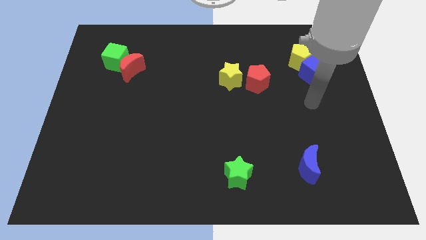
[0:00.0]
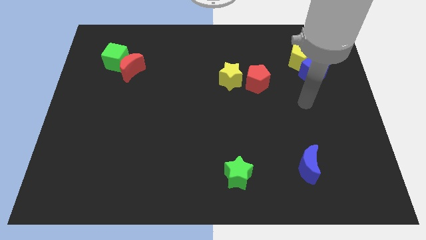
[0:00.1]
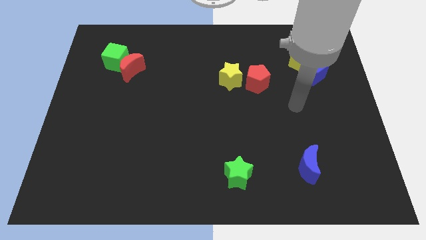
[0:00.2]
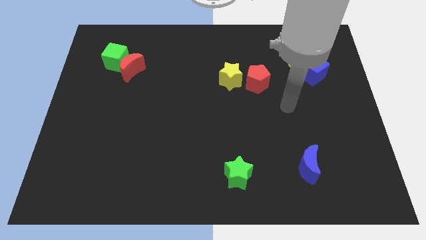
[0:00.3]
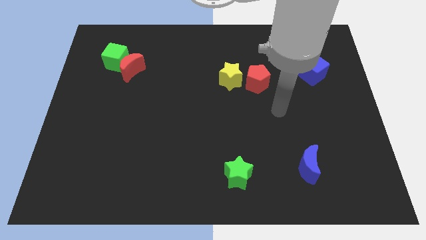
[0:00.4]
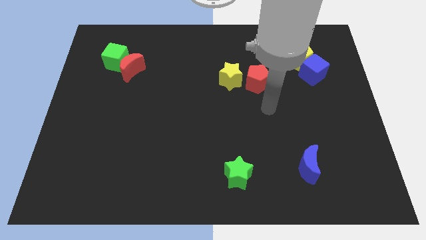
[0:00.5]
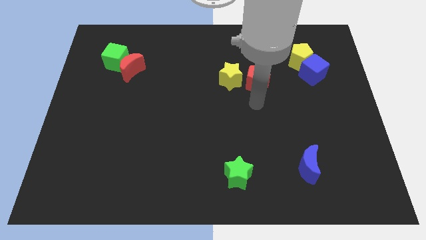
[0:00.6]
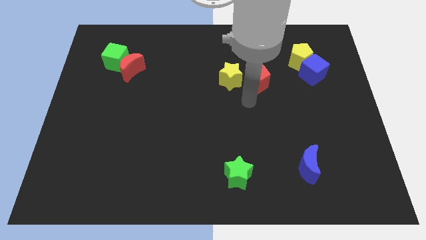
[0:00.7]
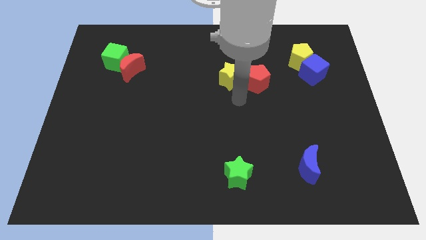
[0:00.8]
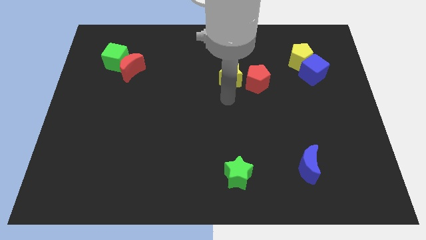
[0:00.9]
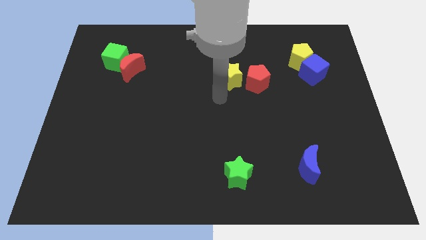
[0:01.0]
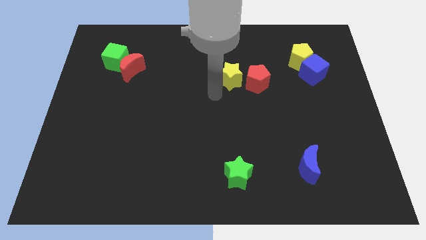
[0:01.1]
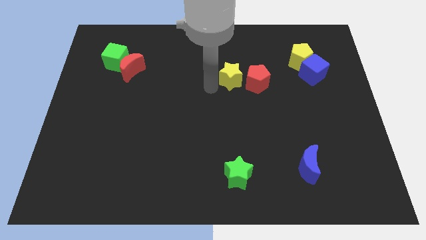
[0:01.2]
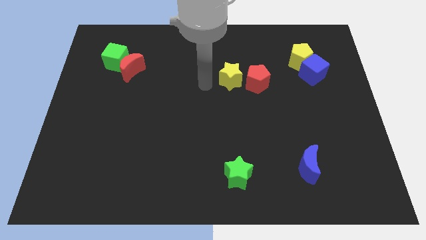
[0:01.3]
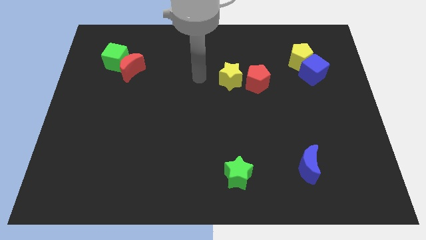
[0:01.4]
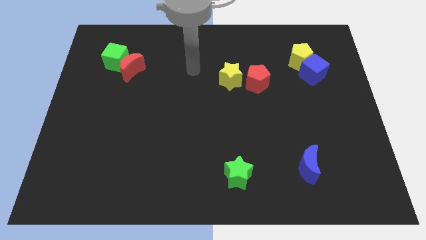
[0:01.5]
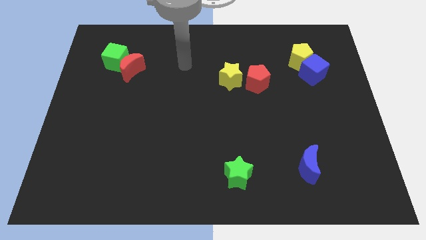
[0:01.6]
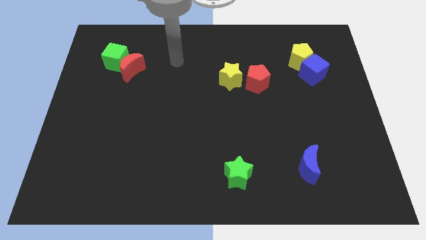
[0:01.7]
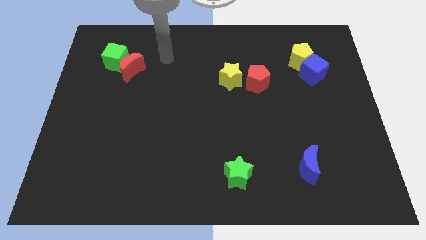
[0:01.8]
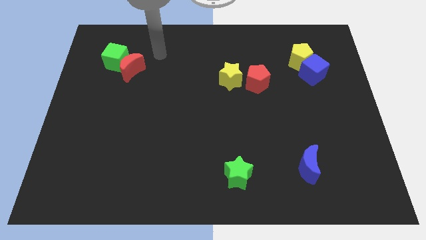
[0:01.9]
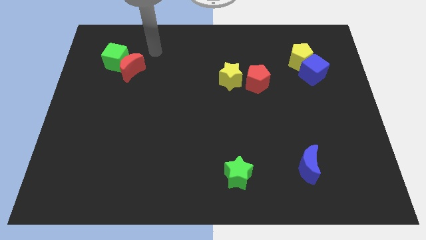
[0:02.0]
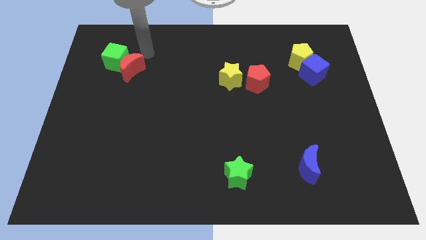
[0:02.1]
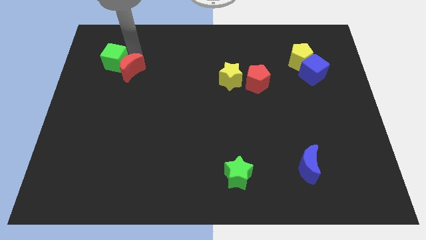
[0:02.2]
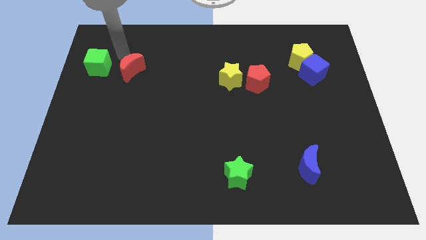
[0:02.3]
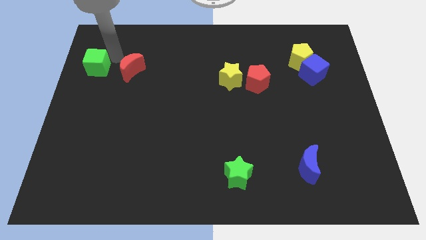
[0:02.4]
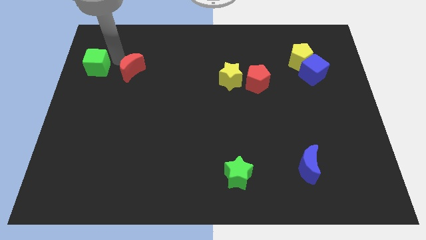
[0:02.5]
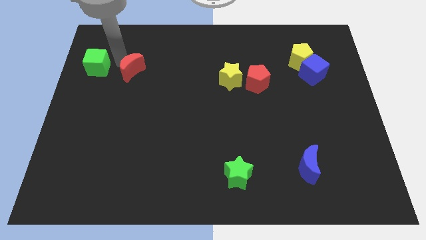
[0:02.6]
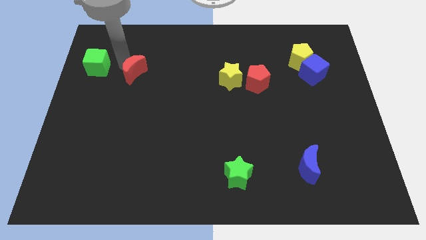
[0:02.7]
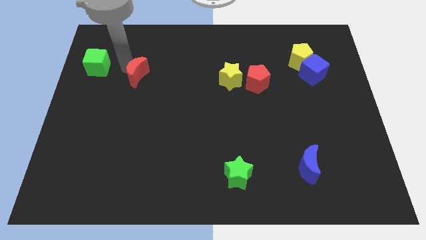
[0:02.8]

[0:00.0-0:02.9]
separate the red moon from the green cube

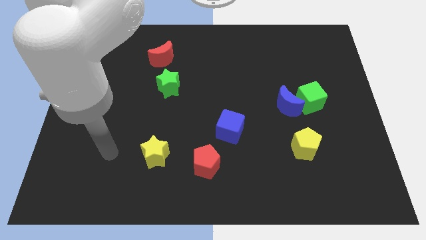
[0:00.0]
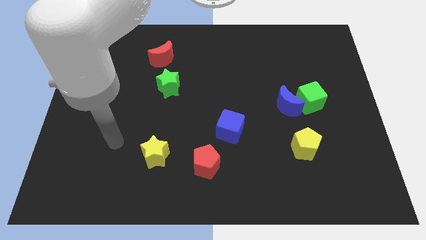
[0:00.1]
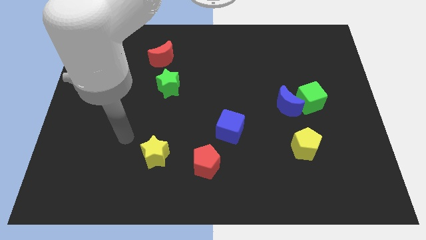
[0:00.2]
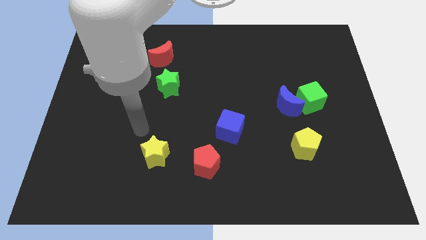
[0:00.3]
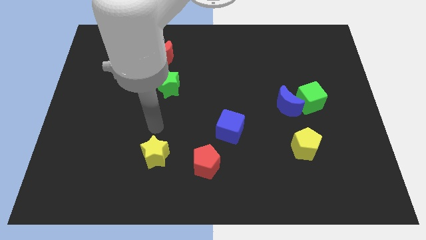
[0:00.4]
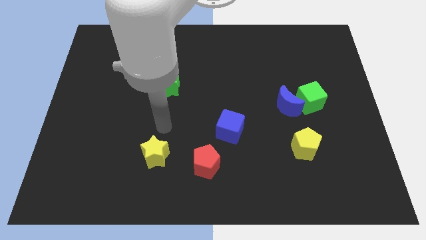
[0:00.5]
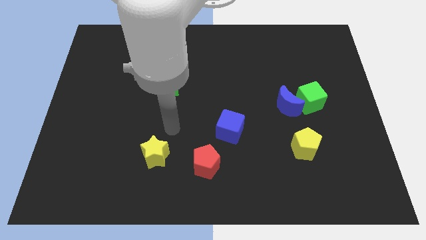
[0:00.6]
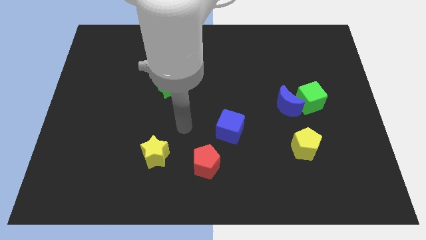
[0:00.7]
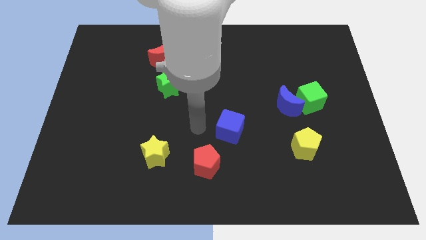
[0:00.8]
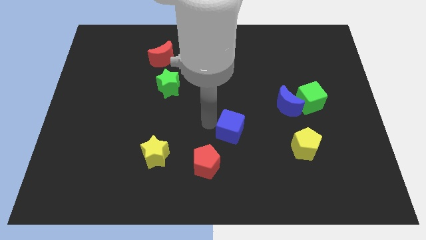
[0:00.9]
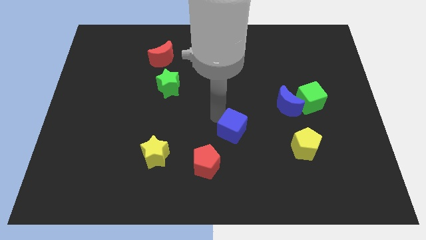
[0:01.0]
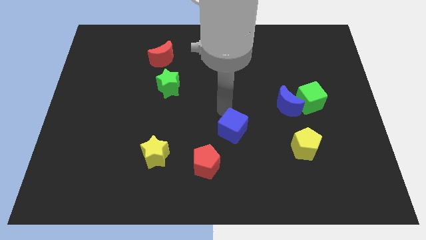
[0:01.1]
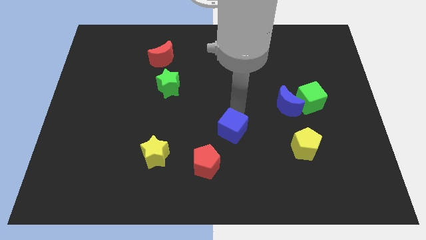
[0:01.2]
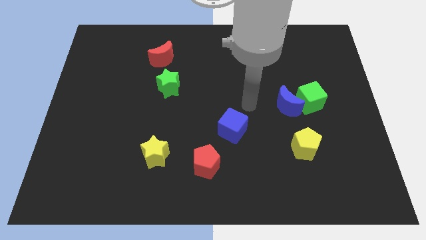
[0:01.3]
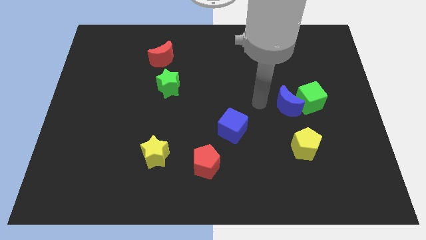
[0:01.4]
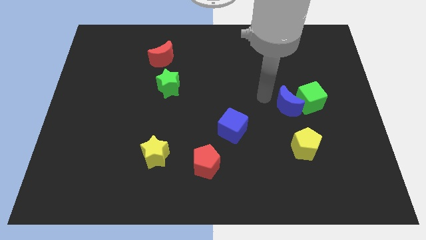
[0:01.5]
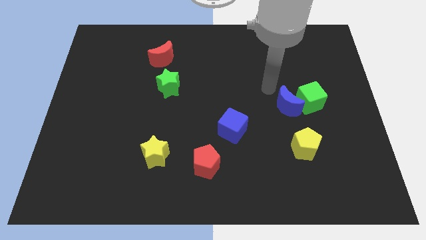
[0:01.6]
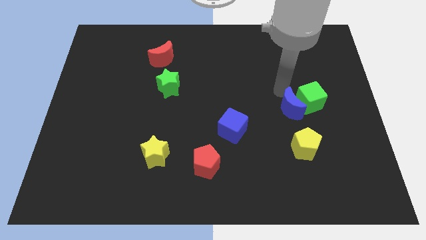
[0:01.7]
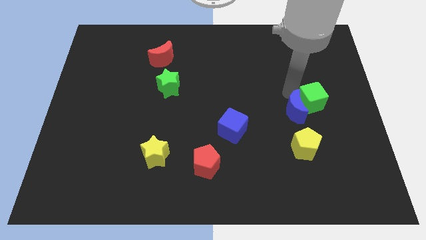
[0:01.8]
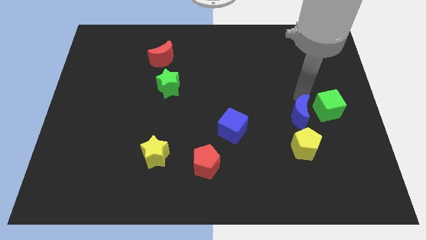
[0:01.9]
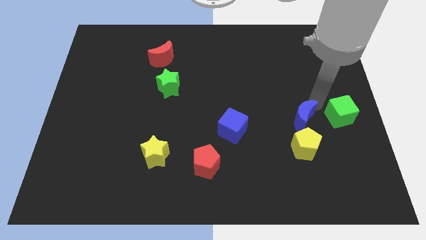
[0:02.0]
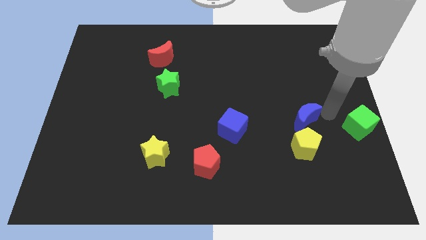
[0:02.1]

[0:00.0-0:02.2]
pull the blue moon apart from the green cube

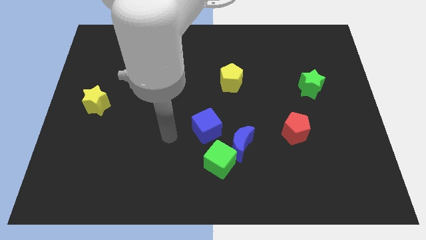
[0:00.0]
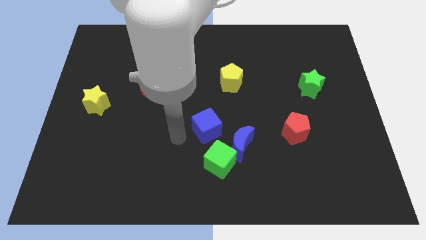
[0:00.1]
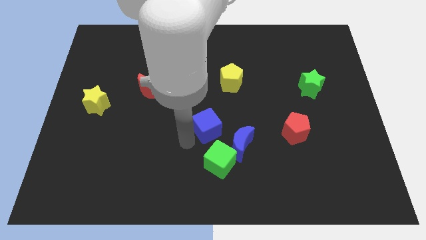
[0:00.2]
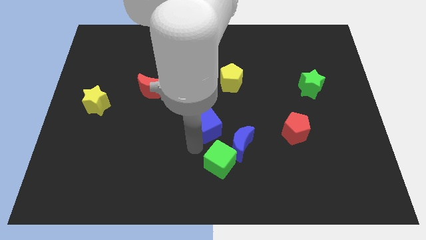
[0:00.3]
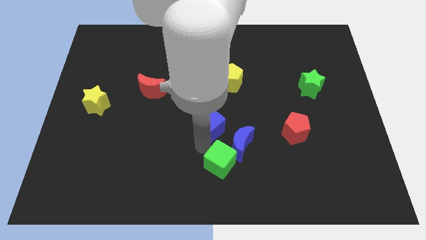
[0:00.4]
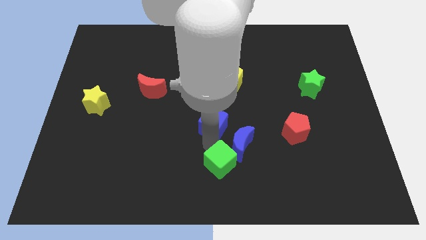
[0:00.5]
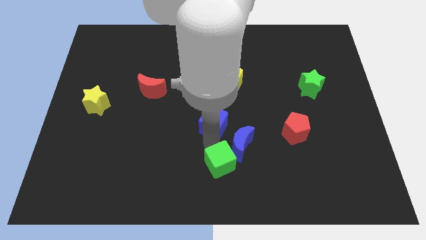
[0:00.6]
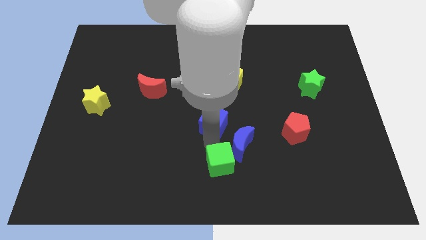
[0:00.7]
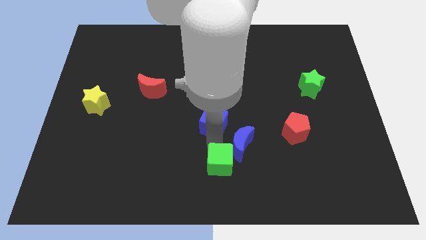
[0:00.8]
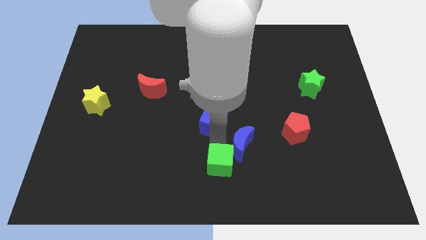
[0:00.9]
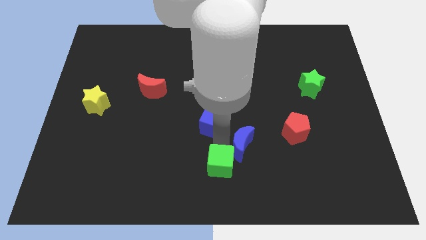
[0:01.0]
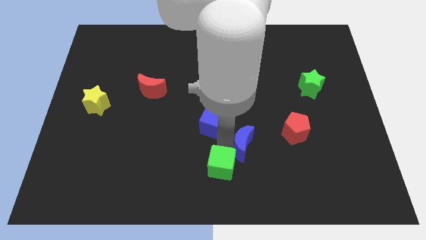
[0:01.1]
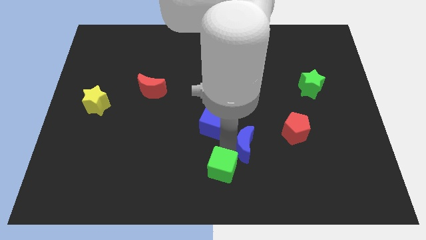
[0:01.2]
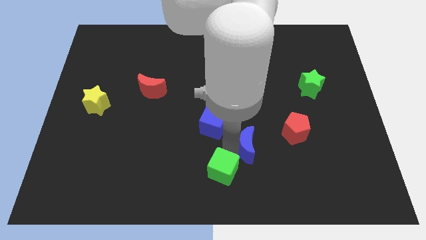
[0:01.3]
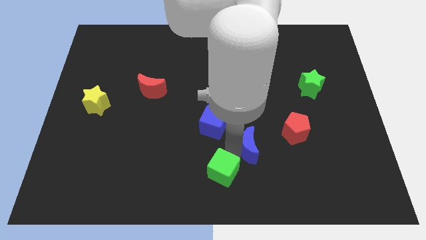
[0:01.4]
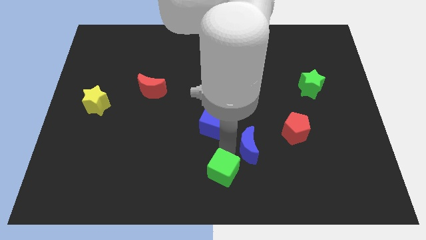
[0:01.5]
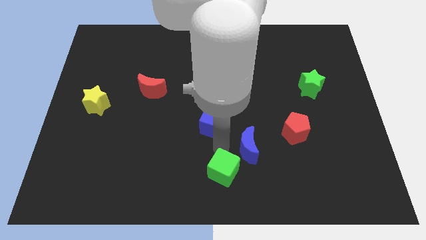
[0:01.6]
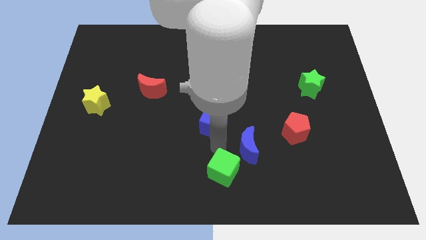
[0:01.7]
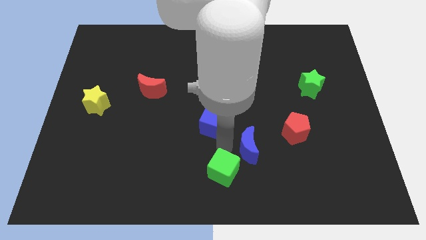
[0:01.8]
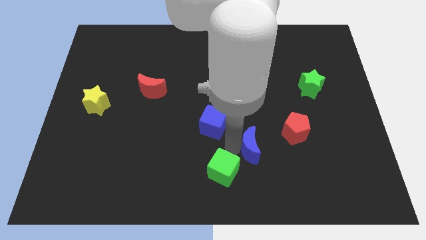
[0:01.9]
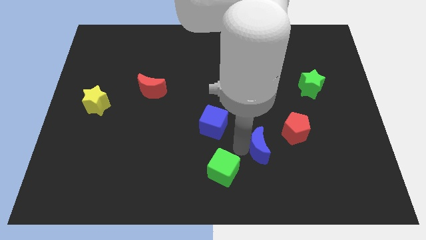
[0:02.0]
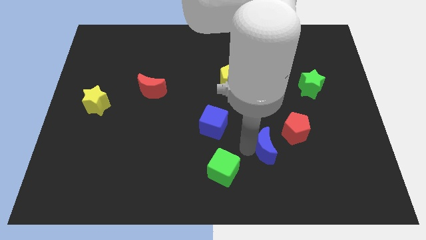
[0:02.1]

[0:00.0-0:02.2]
pull the blue moon apart from the green cube and blue cube

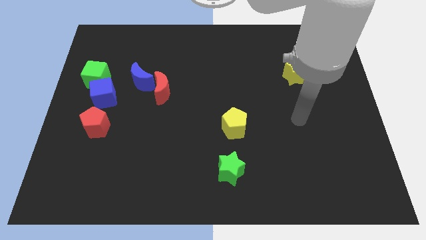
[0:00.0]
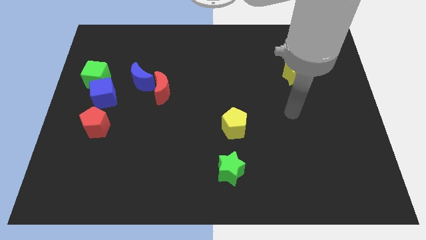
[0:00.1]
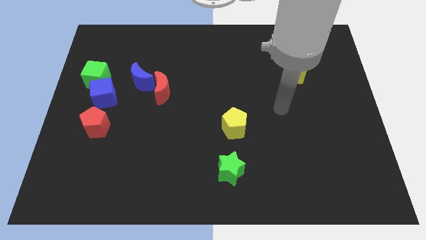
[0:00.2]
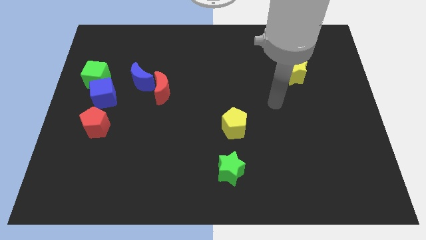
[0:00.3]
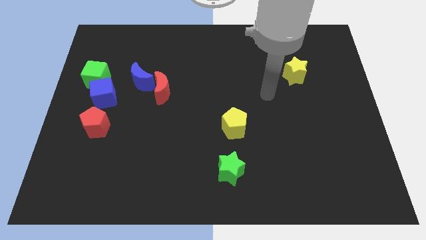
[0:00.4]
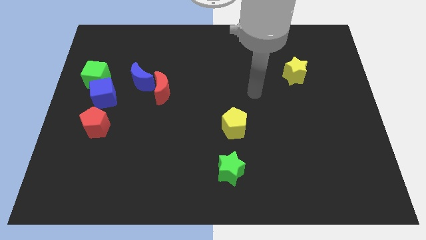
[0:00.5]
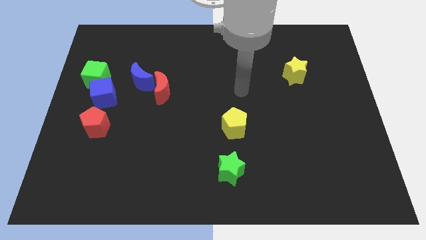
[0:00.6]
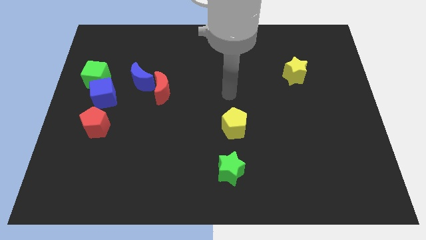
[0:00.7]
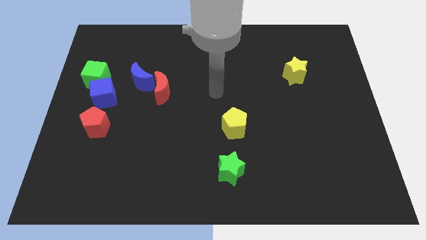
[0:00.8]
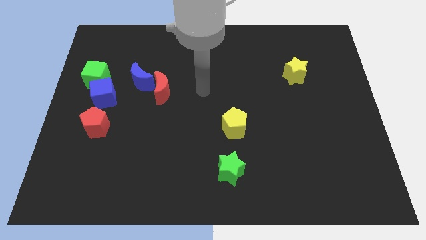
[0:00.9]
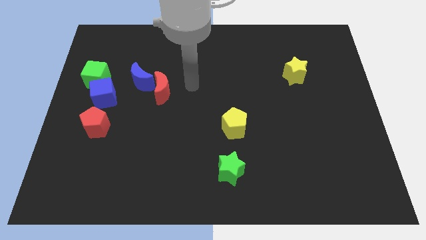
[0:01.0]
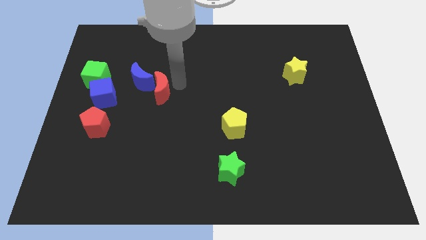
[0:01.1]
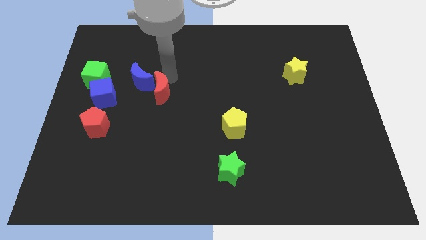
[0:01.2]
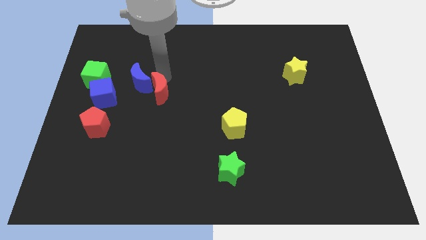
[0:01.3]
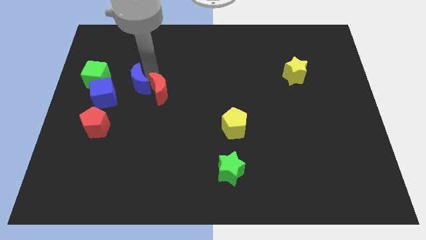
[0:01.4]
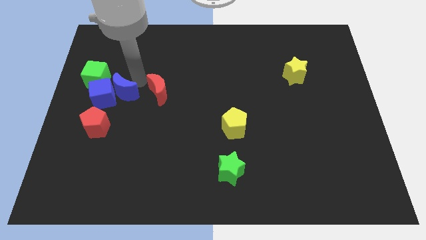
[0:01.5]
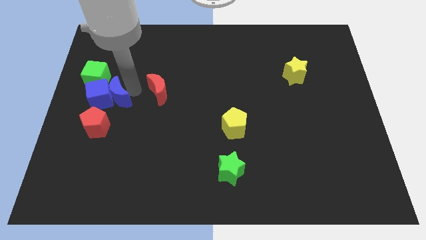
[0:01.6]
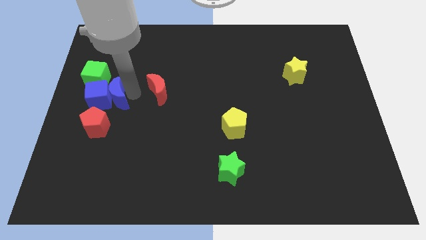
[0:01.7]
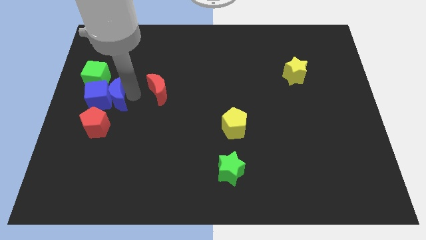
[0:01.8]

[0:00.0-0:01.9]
move the red moon away from the blue moon

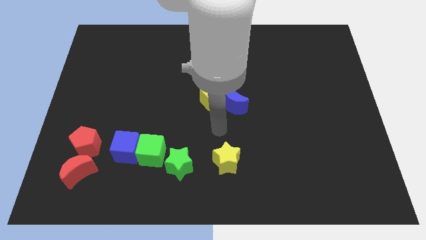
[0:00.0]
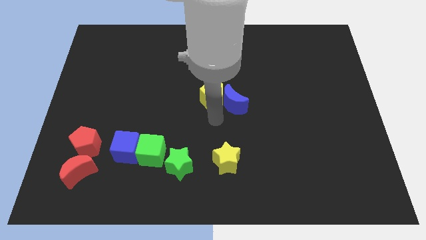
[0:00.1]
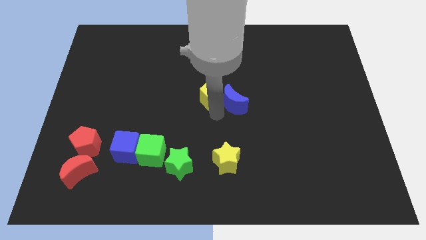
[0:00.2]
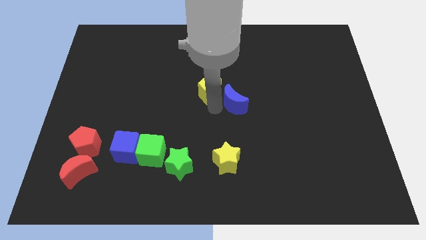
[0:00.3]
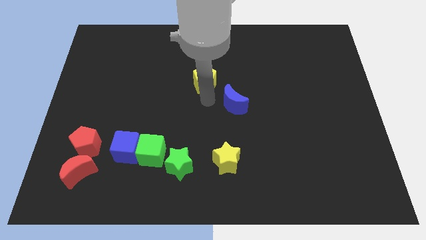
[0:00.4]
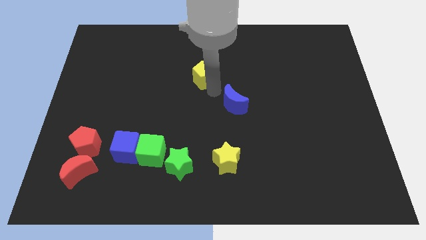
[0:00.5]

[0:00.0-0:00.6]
separate the blue moon from the yellow pentagon
